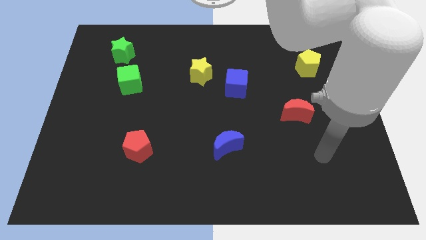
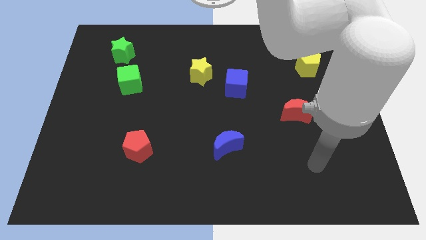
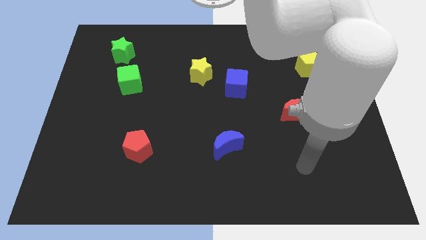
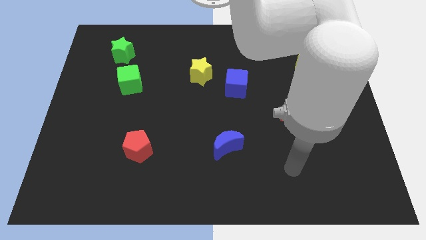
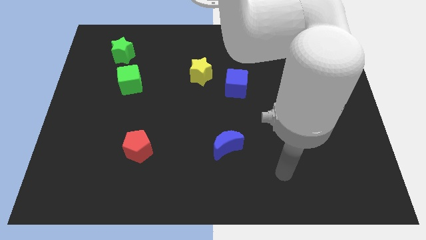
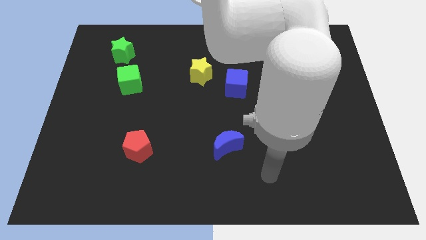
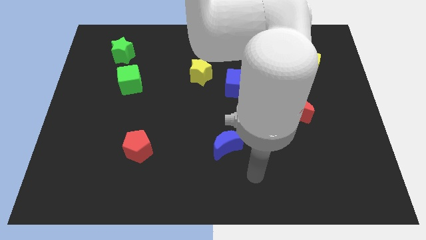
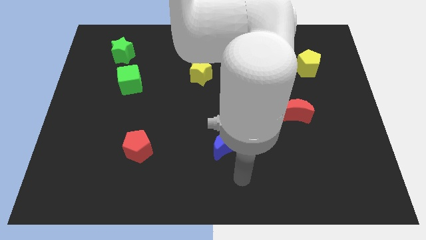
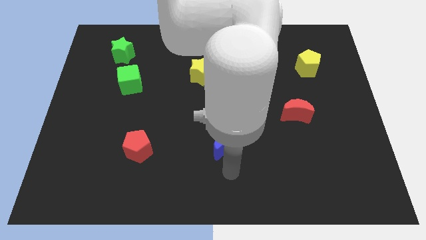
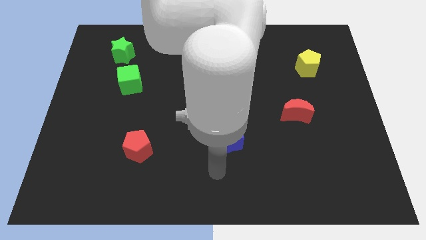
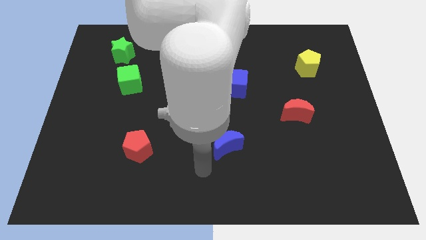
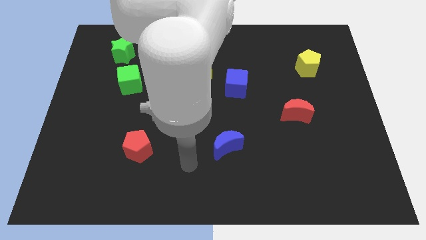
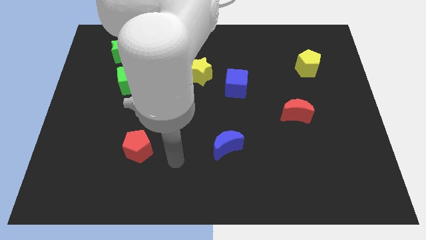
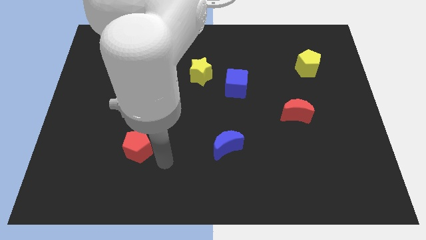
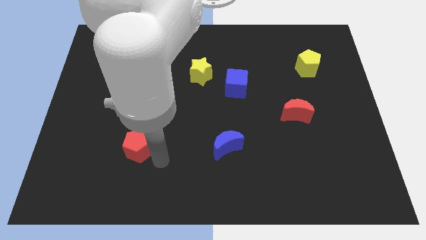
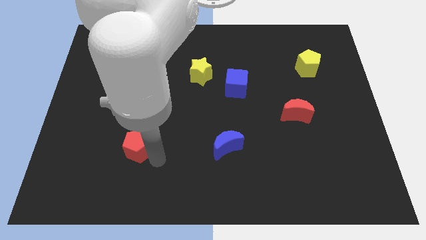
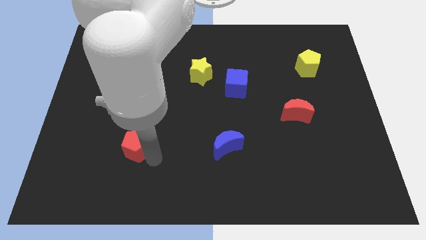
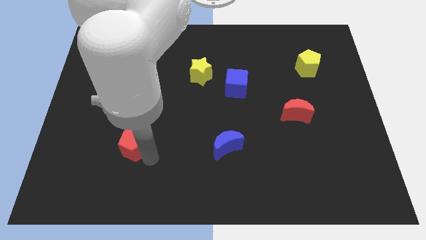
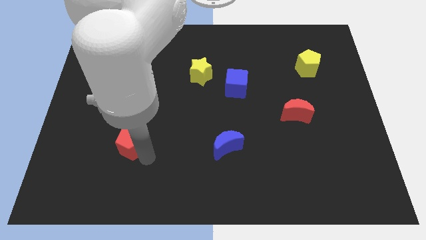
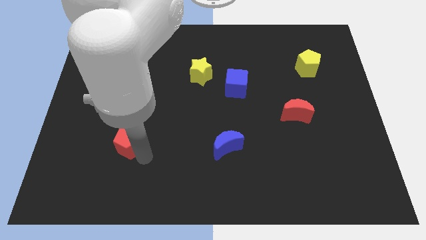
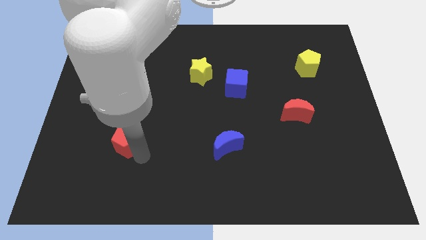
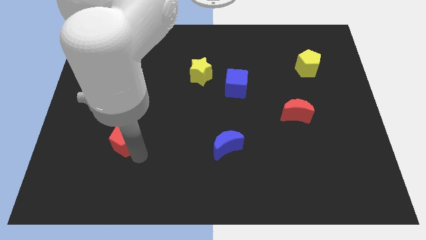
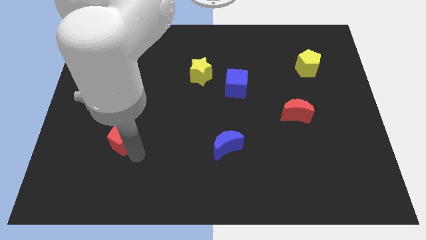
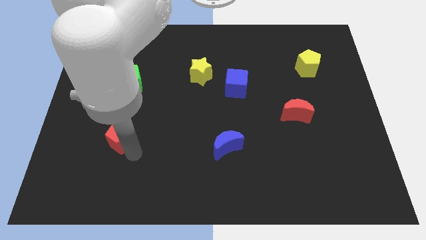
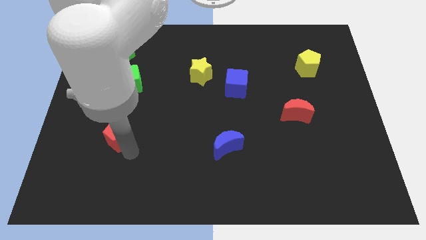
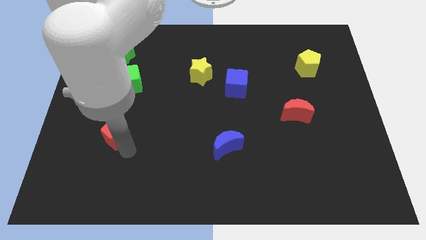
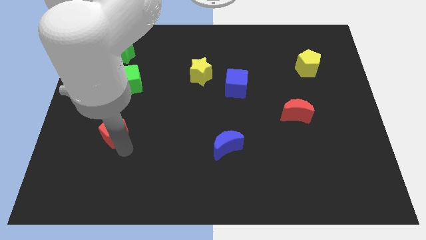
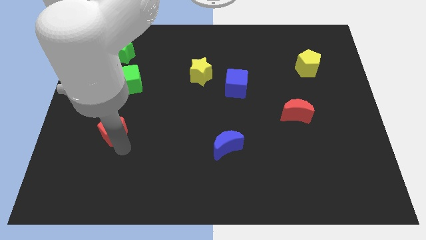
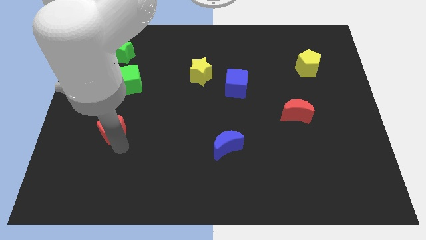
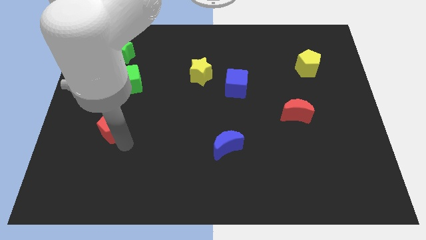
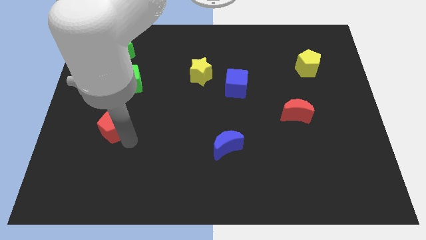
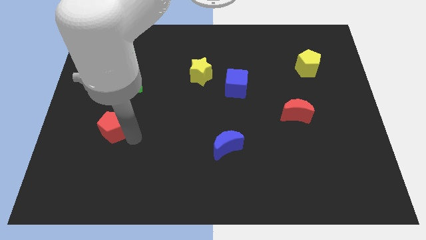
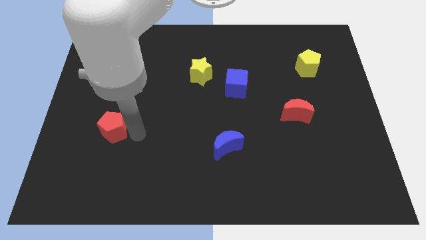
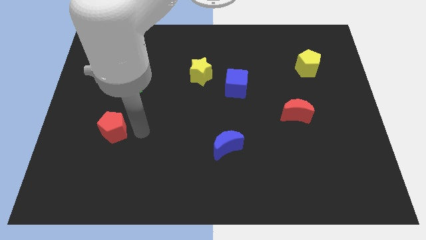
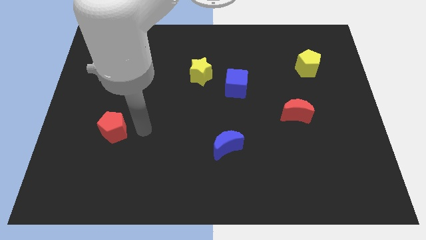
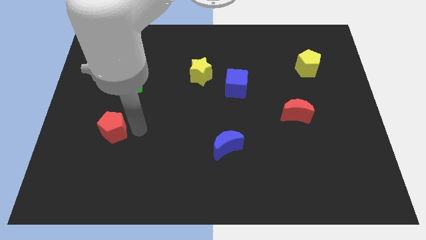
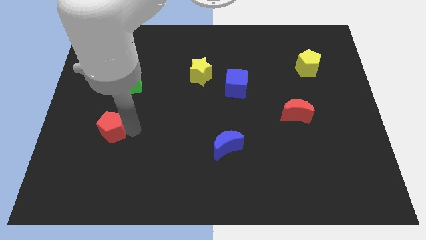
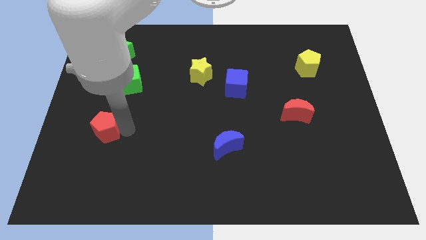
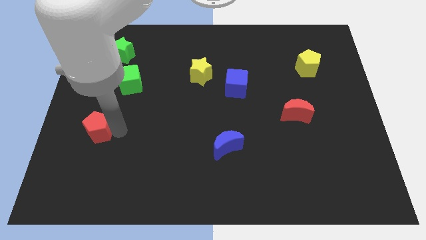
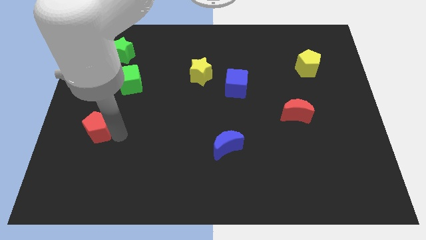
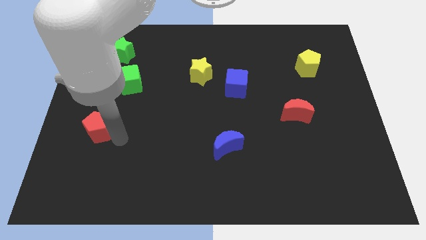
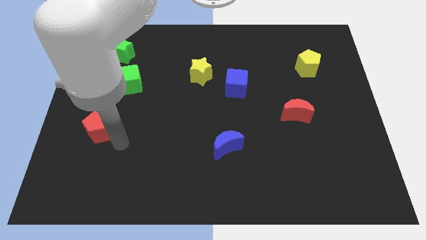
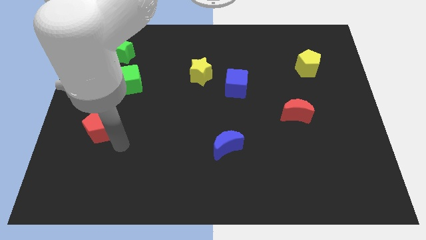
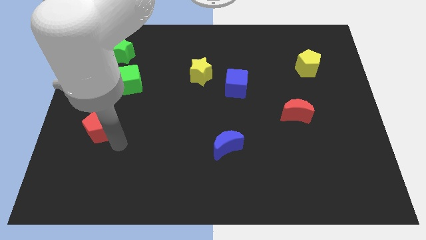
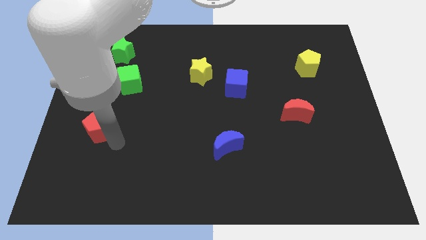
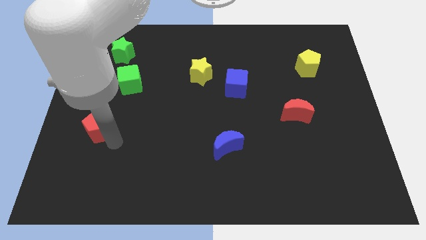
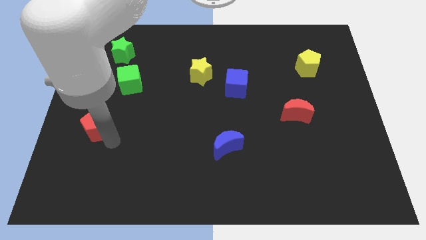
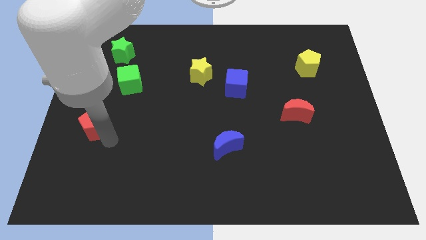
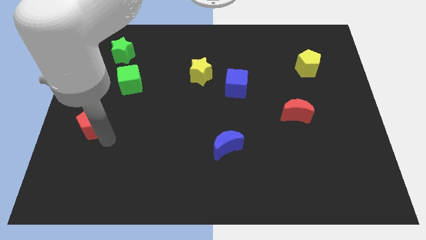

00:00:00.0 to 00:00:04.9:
put the red pentagon to the center left
